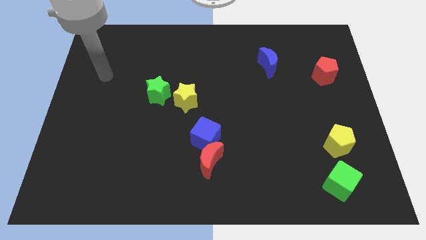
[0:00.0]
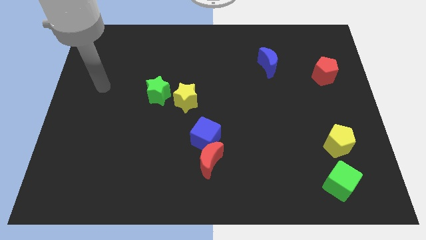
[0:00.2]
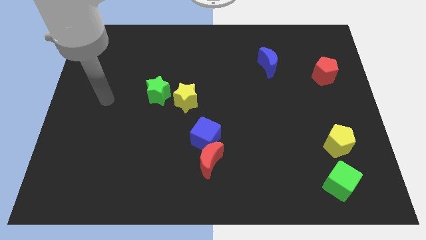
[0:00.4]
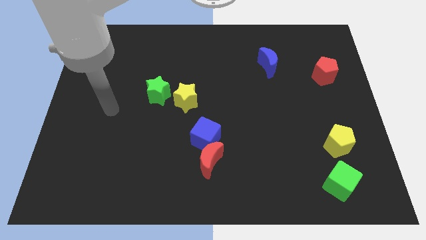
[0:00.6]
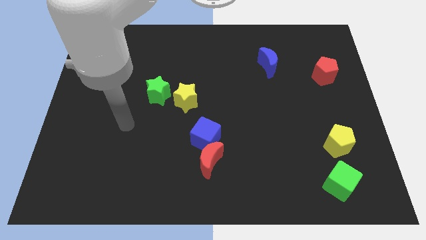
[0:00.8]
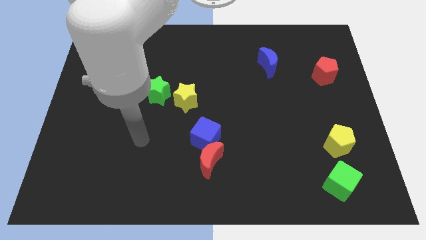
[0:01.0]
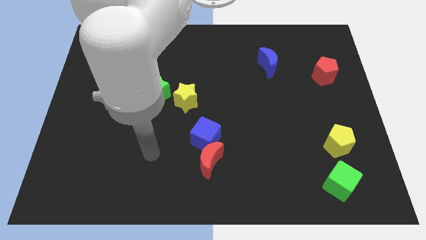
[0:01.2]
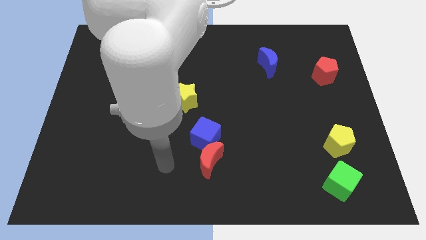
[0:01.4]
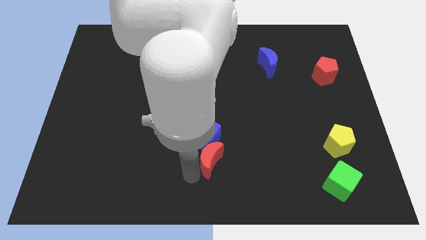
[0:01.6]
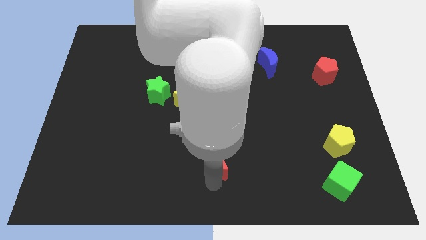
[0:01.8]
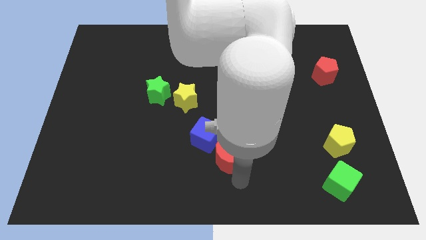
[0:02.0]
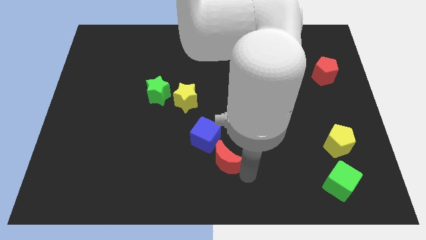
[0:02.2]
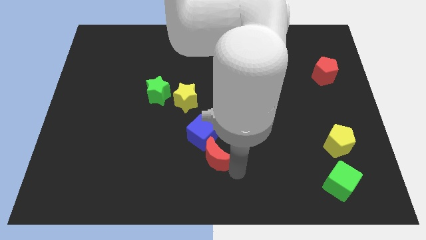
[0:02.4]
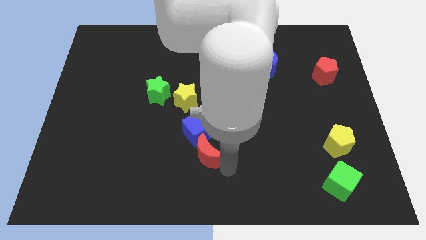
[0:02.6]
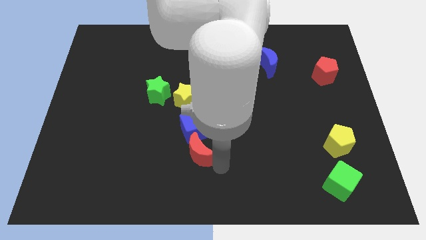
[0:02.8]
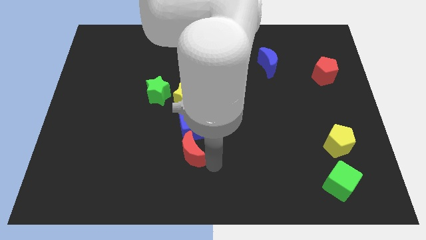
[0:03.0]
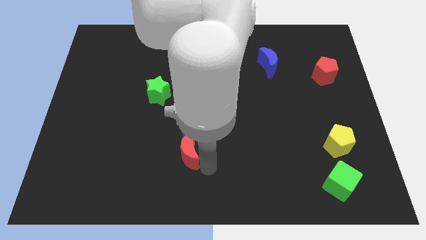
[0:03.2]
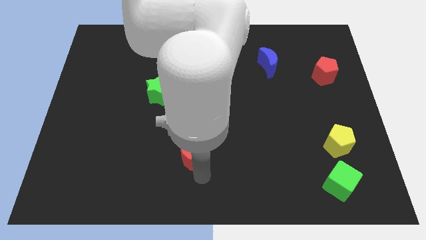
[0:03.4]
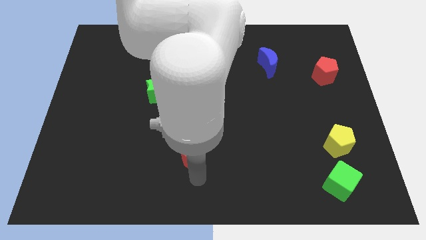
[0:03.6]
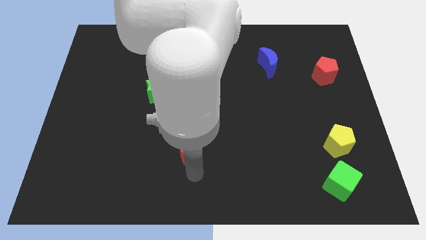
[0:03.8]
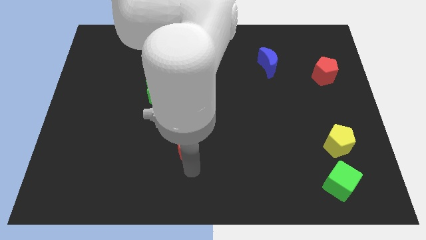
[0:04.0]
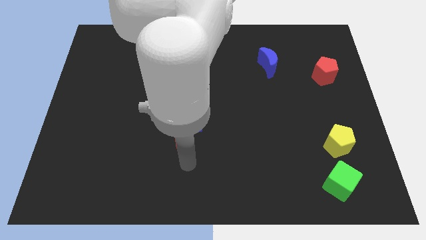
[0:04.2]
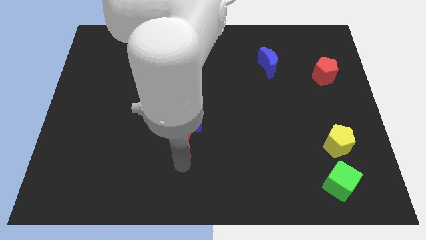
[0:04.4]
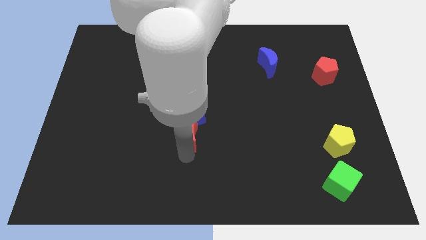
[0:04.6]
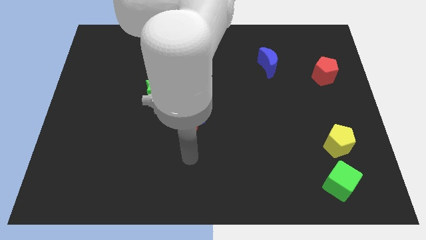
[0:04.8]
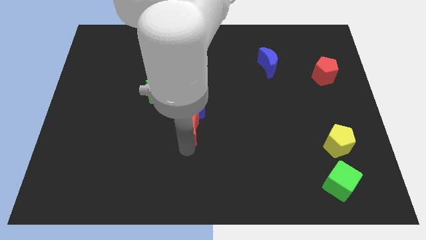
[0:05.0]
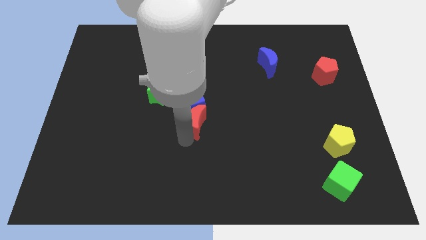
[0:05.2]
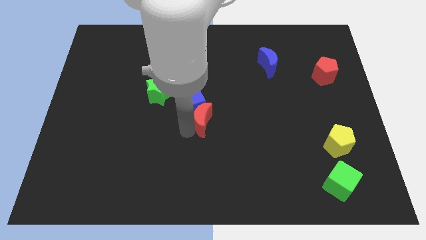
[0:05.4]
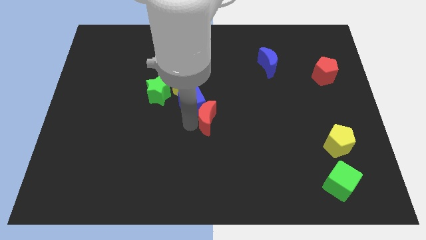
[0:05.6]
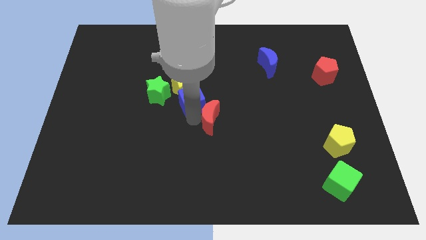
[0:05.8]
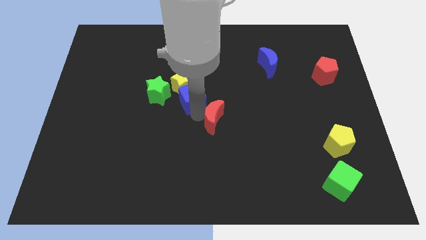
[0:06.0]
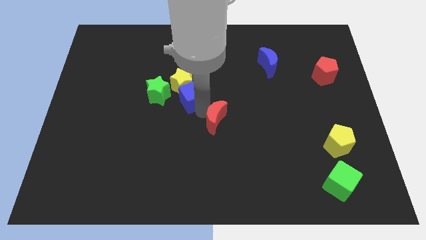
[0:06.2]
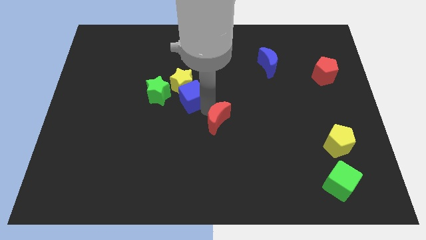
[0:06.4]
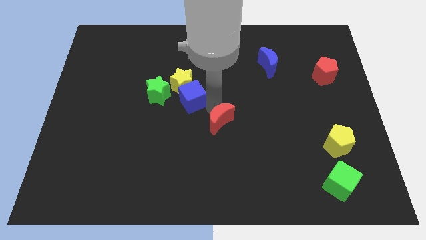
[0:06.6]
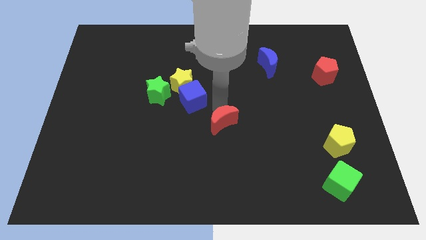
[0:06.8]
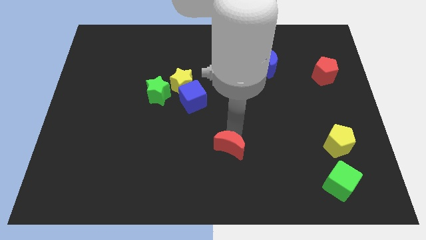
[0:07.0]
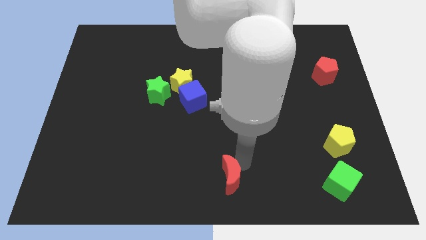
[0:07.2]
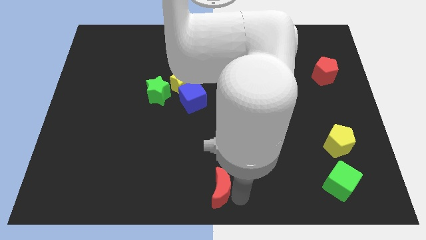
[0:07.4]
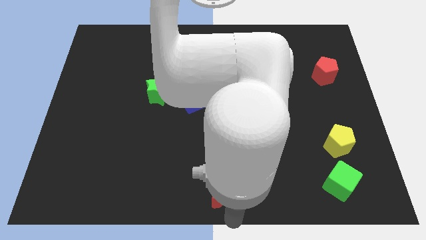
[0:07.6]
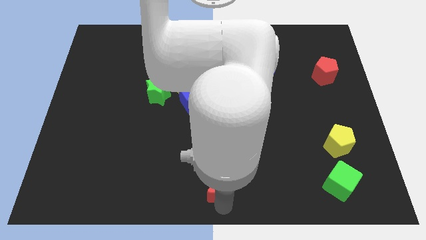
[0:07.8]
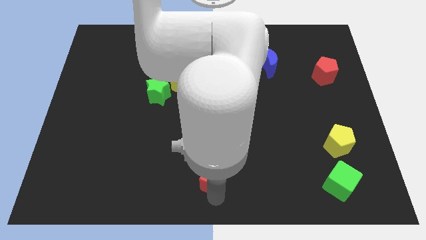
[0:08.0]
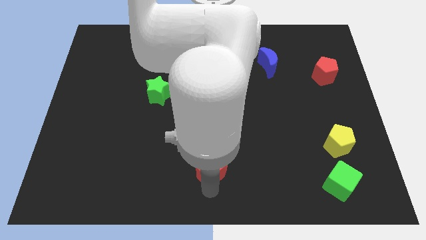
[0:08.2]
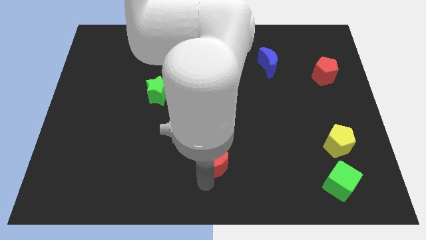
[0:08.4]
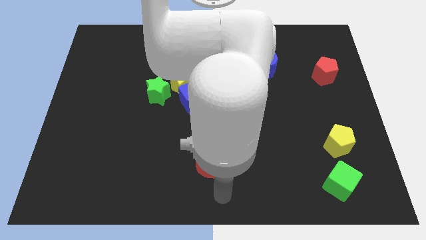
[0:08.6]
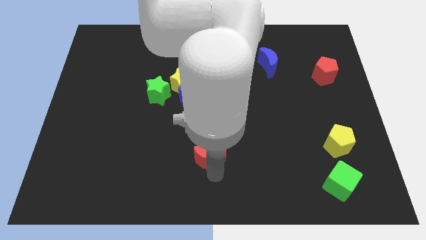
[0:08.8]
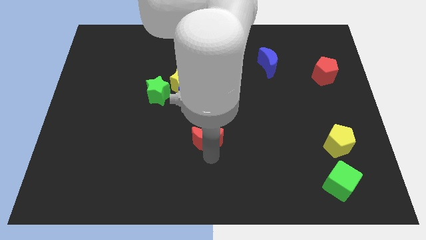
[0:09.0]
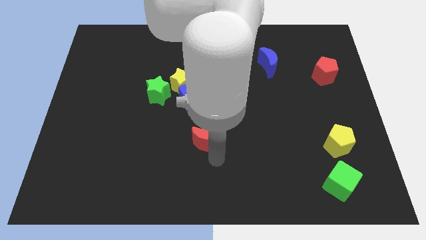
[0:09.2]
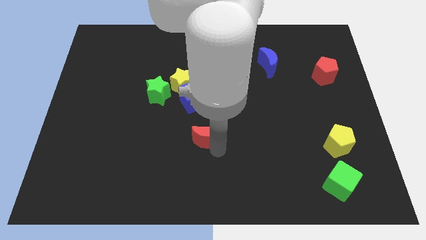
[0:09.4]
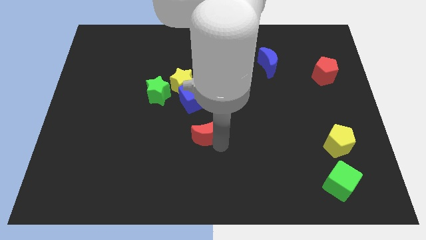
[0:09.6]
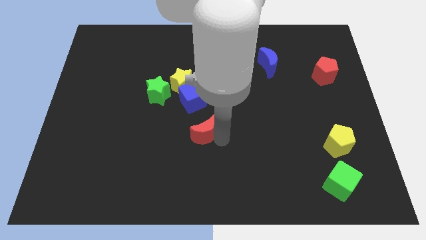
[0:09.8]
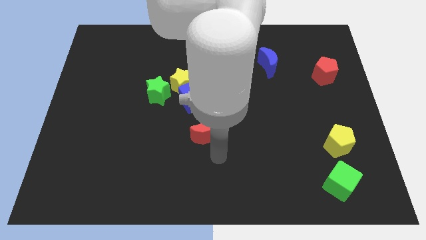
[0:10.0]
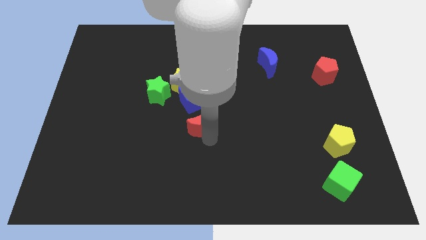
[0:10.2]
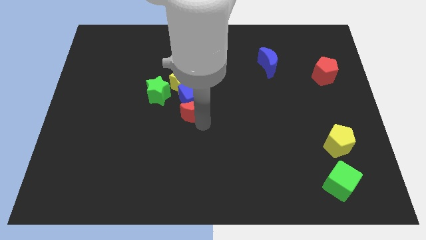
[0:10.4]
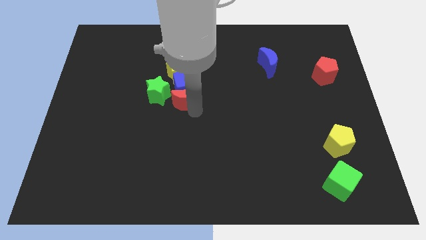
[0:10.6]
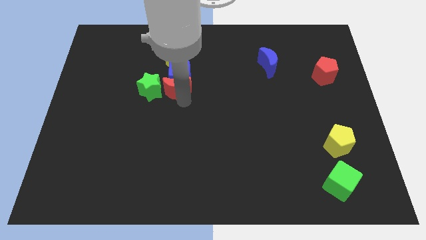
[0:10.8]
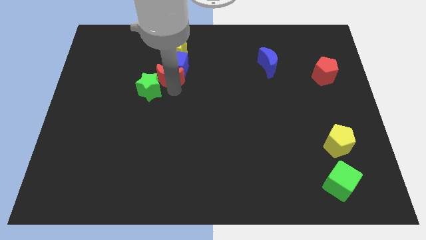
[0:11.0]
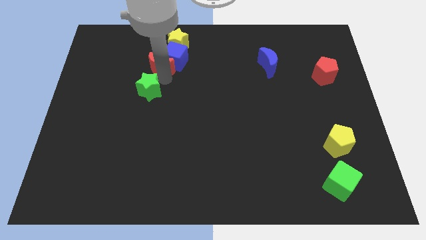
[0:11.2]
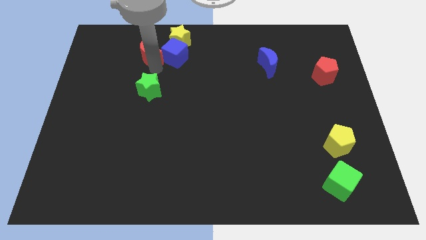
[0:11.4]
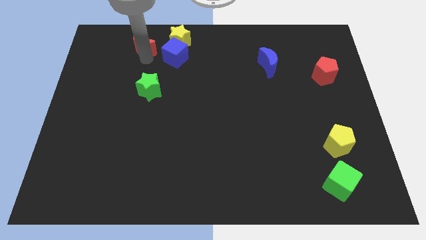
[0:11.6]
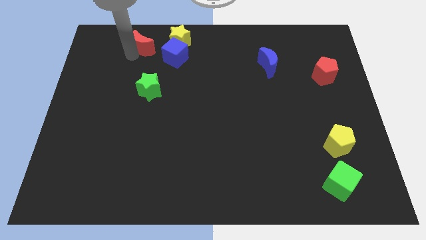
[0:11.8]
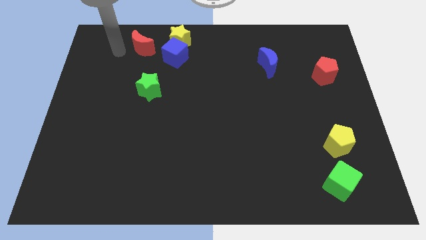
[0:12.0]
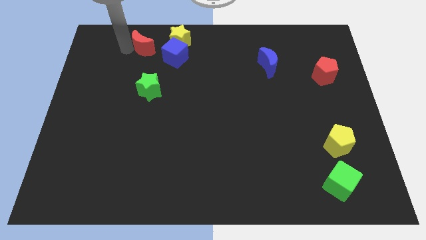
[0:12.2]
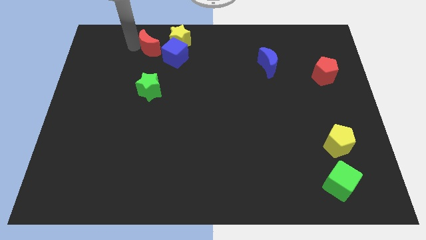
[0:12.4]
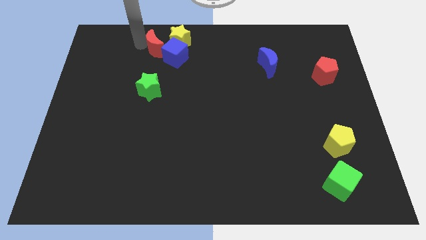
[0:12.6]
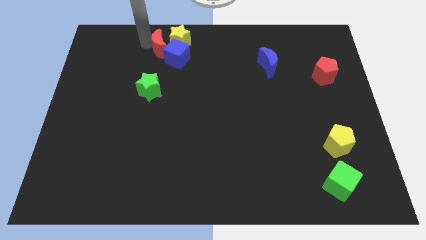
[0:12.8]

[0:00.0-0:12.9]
move the red moon to the yellow star
